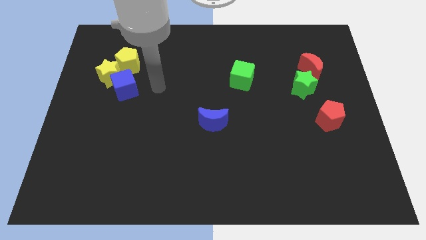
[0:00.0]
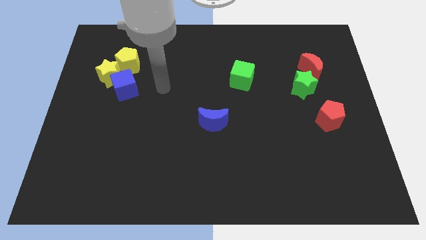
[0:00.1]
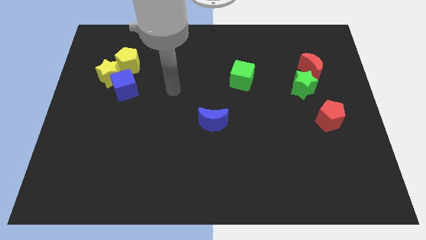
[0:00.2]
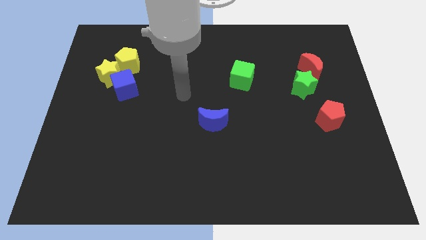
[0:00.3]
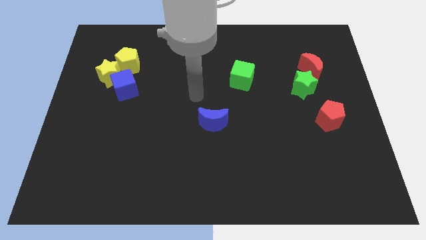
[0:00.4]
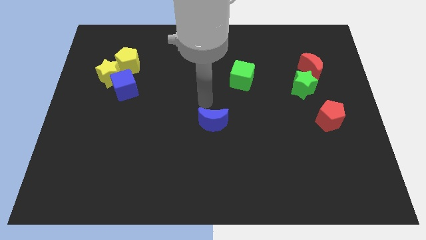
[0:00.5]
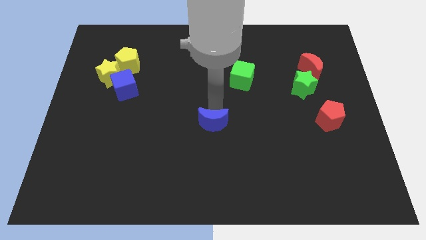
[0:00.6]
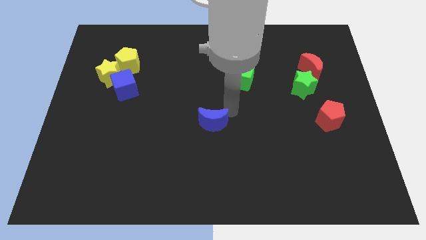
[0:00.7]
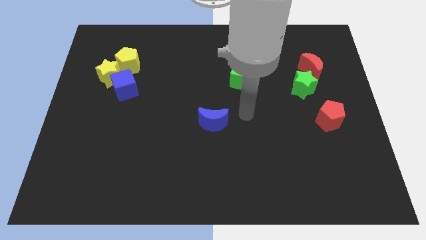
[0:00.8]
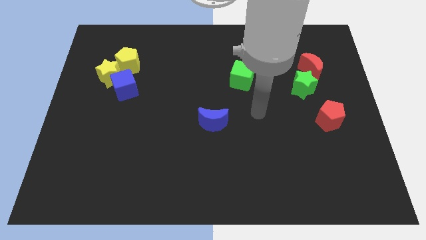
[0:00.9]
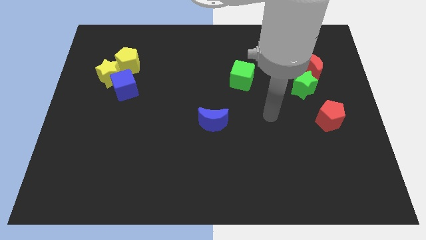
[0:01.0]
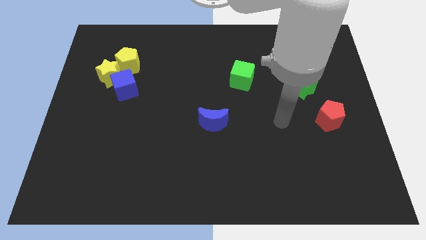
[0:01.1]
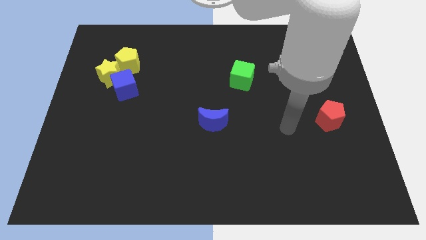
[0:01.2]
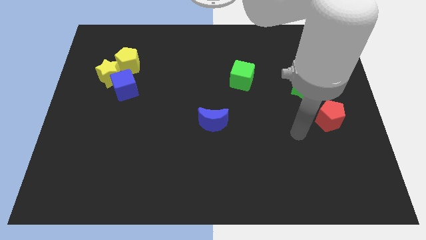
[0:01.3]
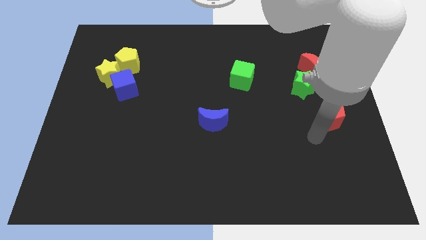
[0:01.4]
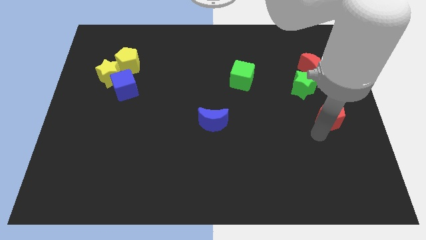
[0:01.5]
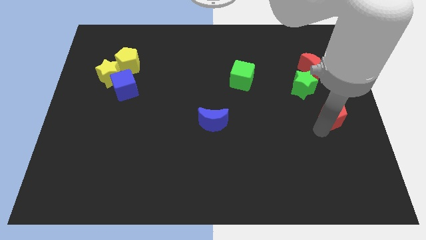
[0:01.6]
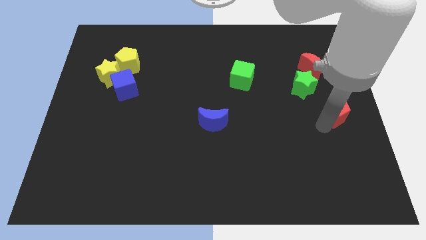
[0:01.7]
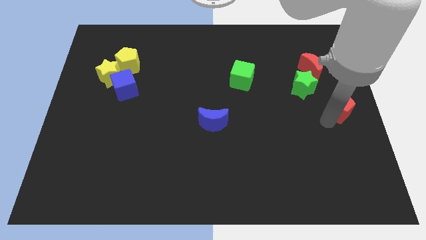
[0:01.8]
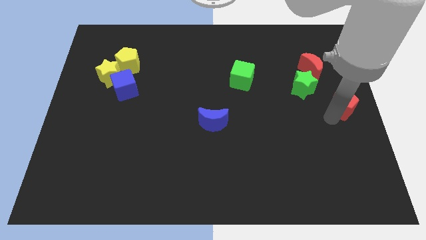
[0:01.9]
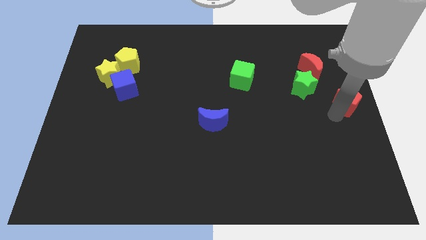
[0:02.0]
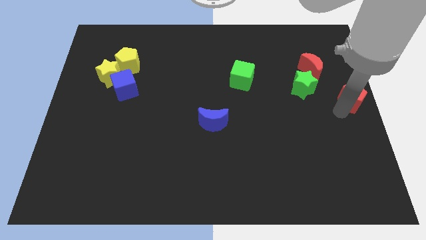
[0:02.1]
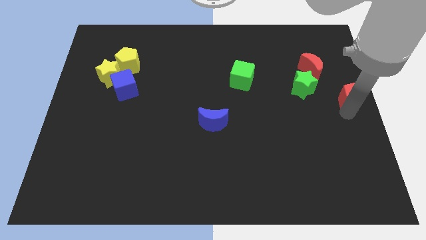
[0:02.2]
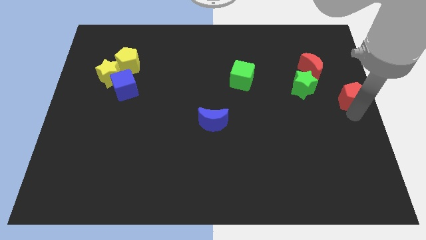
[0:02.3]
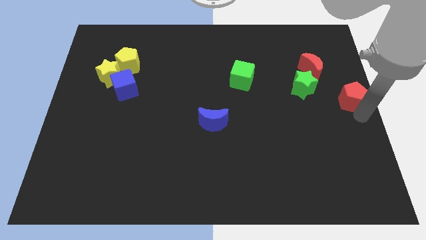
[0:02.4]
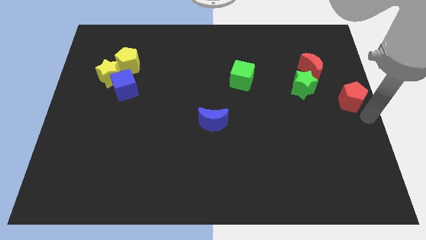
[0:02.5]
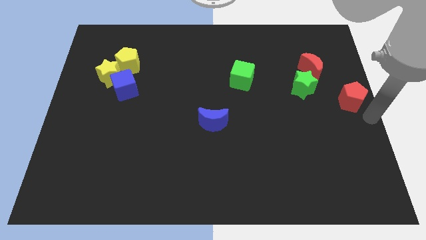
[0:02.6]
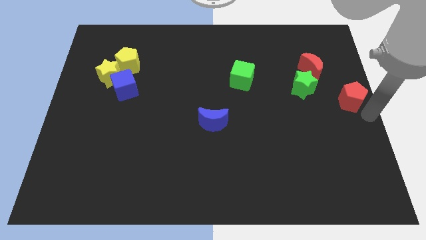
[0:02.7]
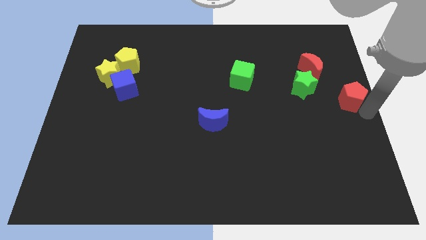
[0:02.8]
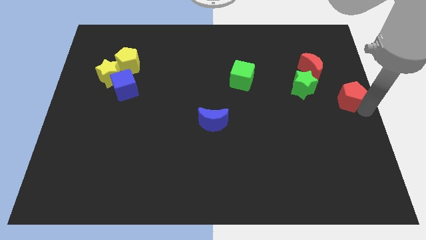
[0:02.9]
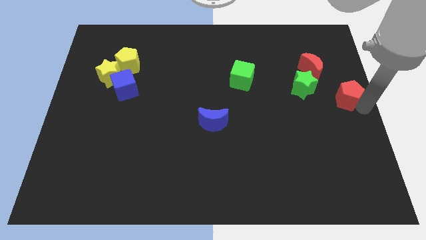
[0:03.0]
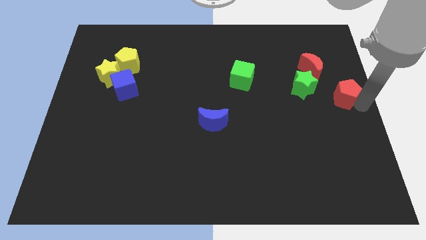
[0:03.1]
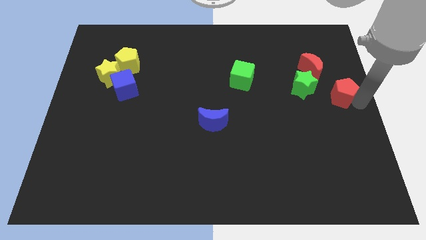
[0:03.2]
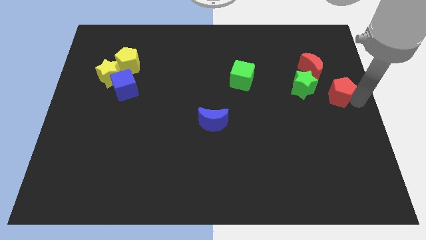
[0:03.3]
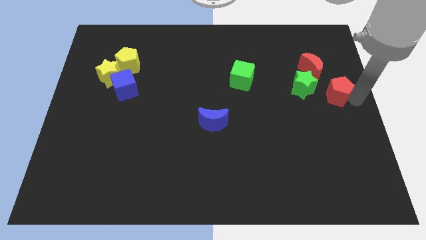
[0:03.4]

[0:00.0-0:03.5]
push the red pentagon upwards somewhat

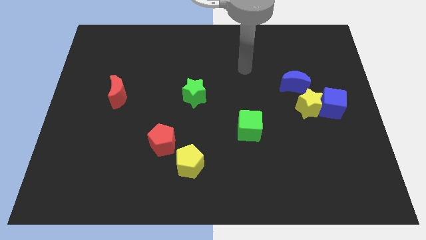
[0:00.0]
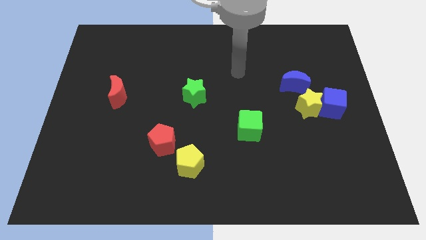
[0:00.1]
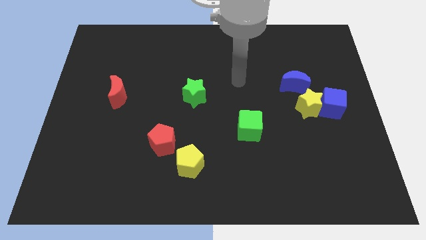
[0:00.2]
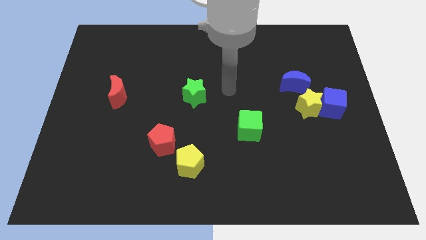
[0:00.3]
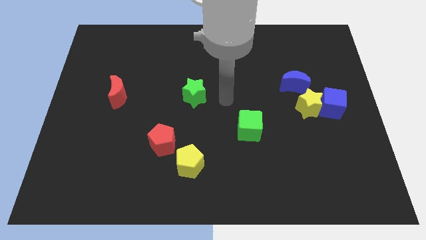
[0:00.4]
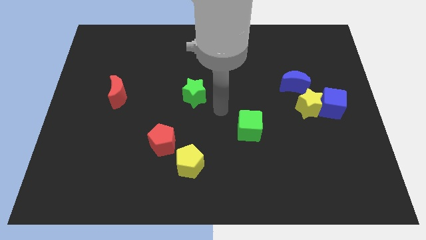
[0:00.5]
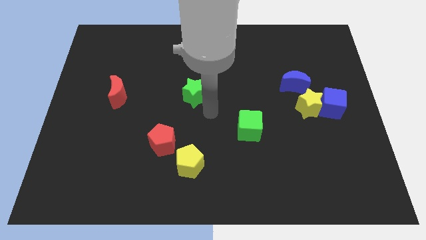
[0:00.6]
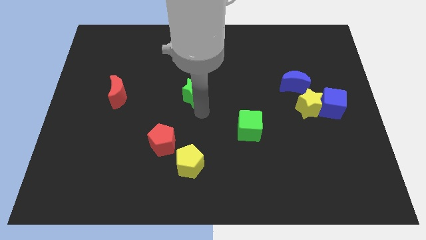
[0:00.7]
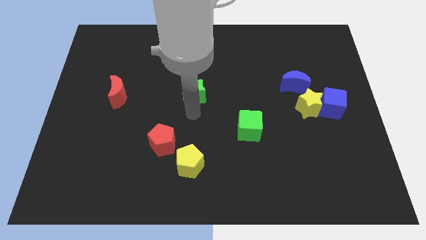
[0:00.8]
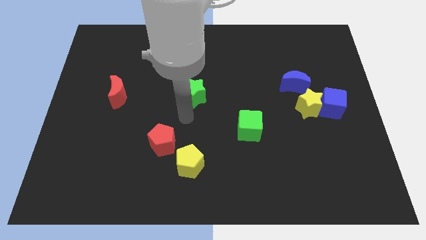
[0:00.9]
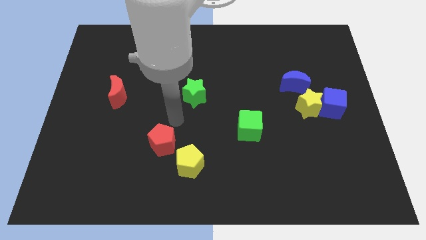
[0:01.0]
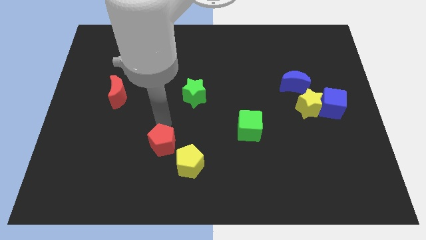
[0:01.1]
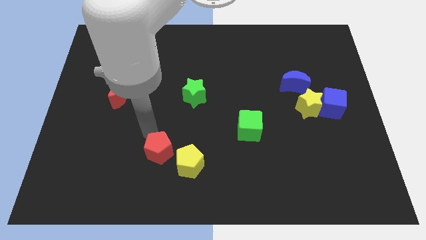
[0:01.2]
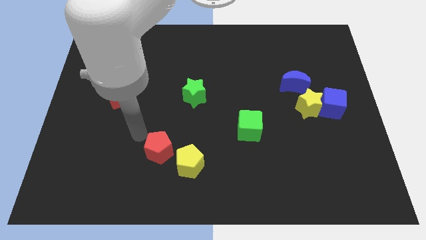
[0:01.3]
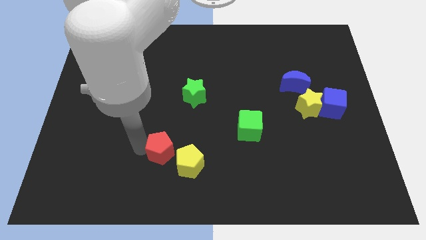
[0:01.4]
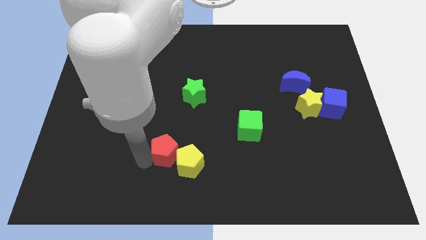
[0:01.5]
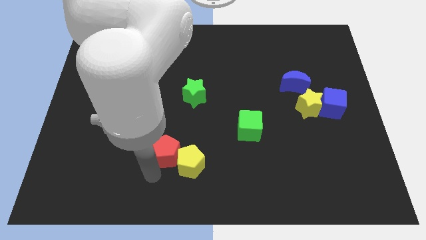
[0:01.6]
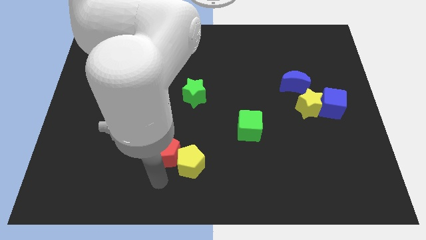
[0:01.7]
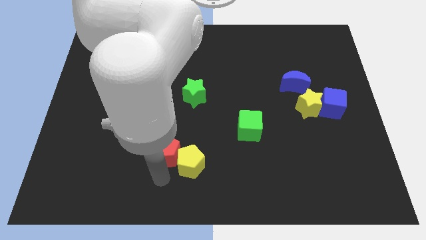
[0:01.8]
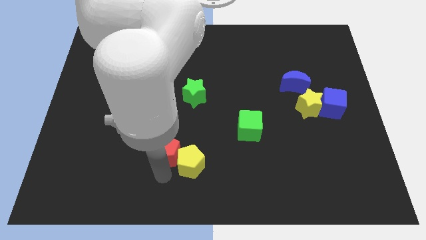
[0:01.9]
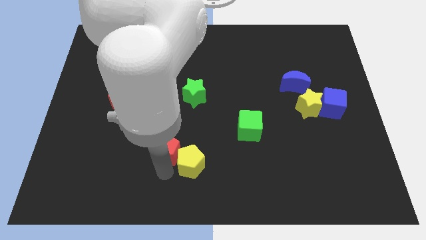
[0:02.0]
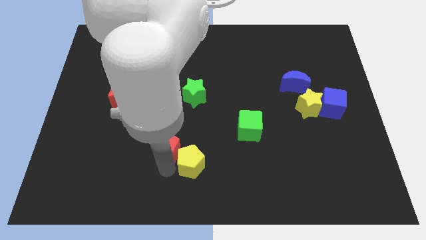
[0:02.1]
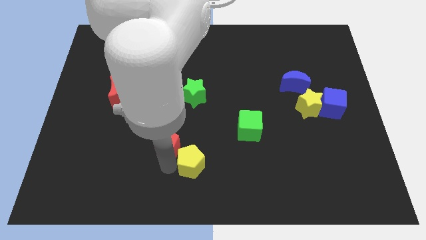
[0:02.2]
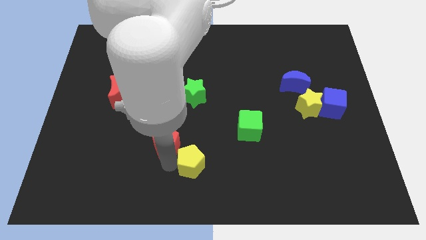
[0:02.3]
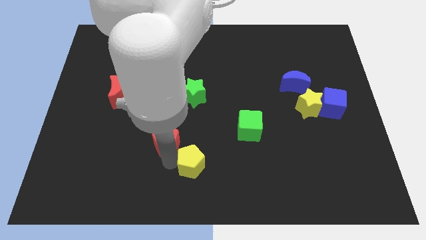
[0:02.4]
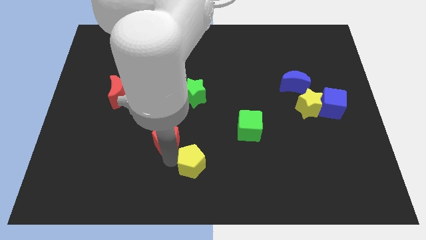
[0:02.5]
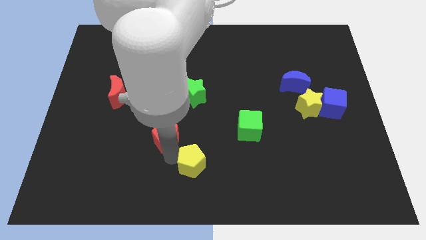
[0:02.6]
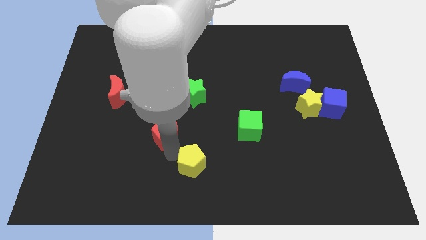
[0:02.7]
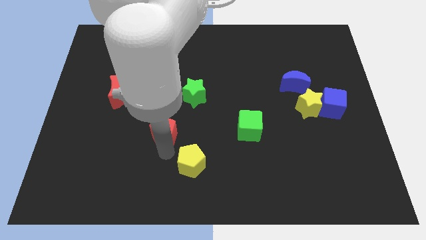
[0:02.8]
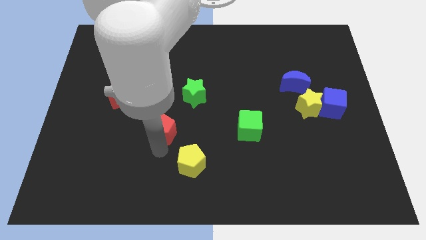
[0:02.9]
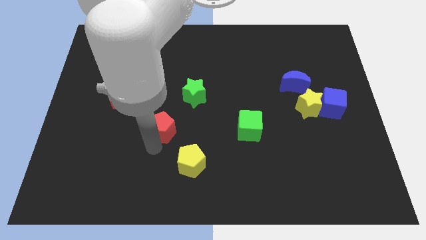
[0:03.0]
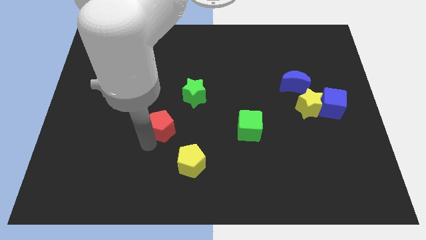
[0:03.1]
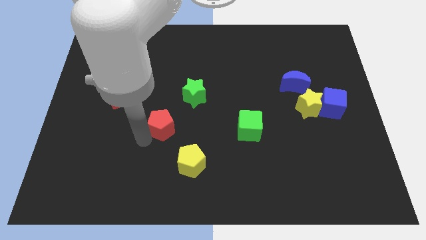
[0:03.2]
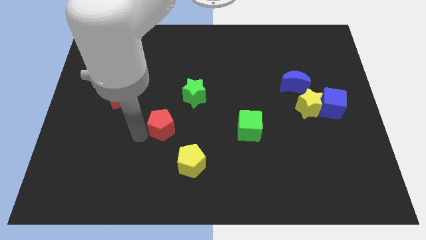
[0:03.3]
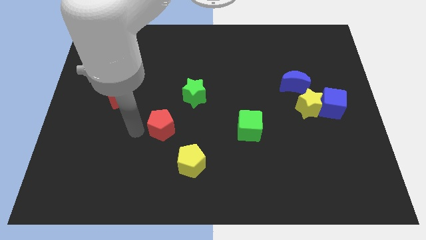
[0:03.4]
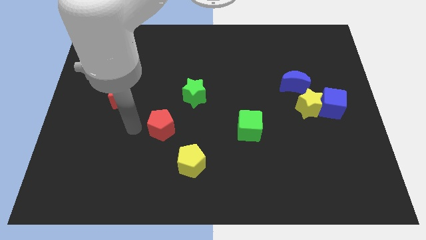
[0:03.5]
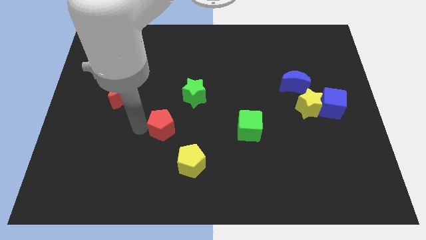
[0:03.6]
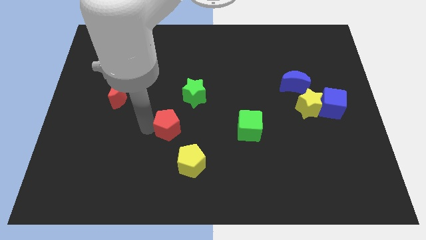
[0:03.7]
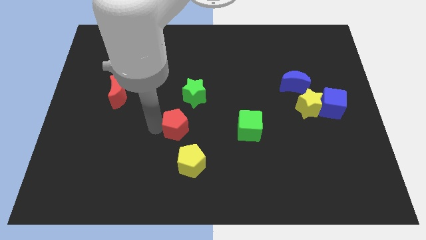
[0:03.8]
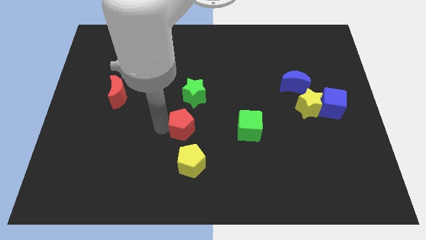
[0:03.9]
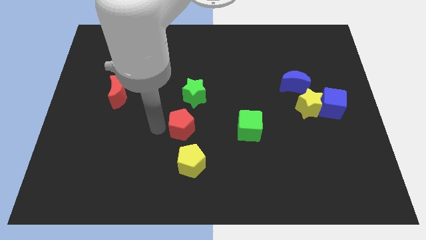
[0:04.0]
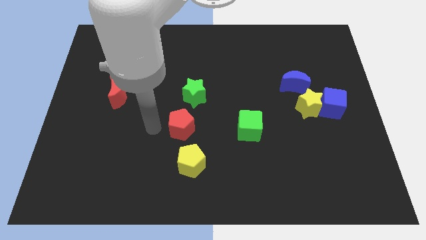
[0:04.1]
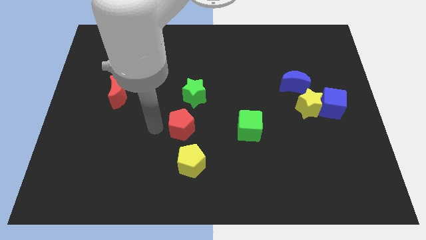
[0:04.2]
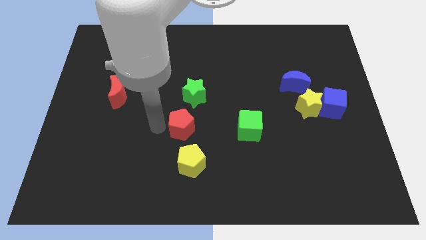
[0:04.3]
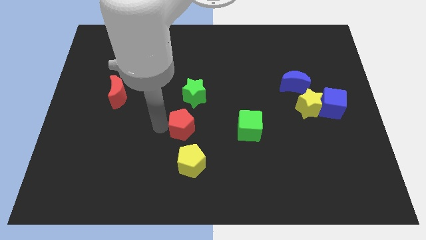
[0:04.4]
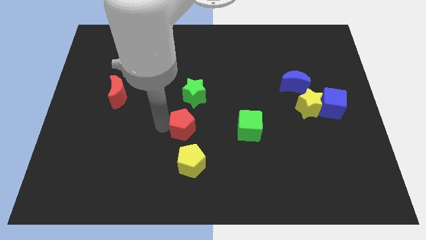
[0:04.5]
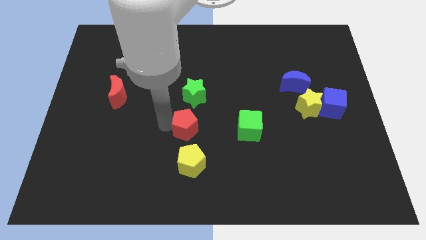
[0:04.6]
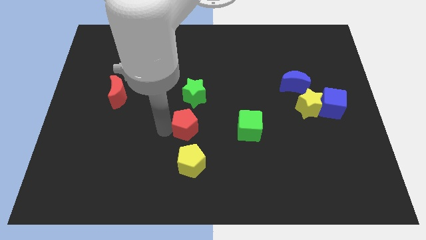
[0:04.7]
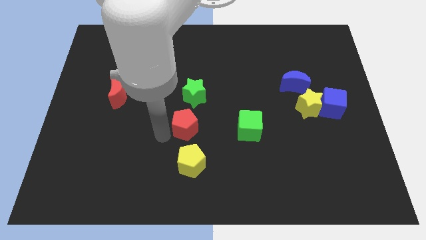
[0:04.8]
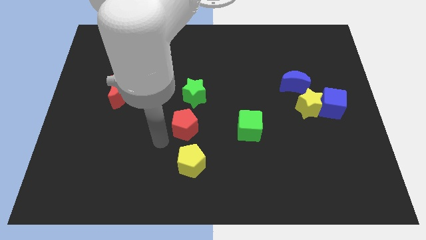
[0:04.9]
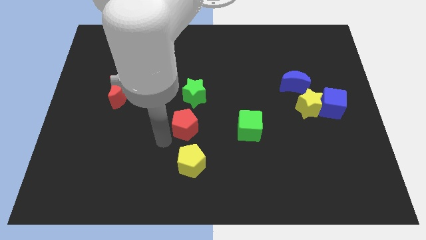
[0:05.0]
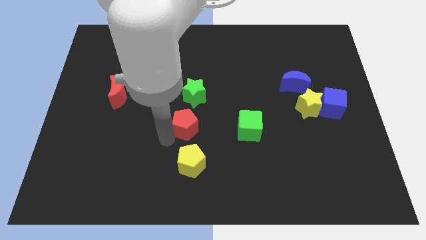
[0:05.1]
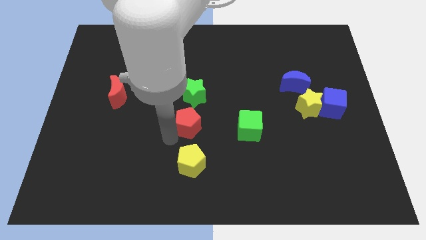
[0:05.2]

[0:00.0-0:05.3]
move the red pentagon a bit up and then to the right
